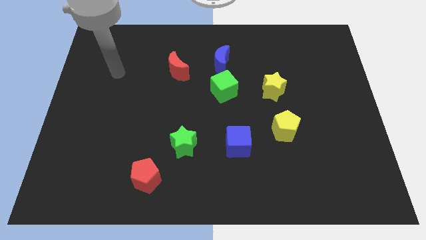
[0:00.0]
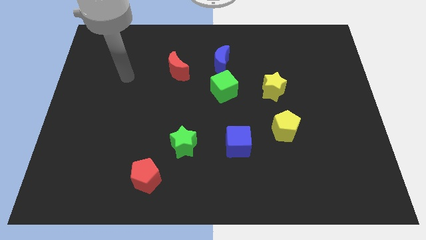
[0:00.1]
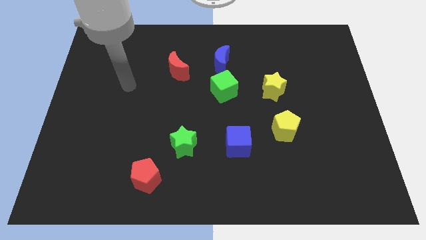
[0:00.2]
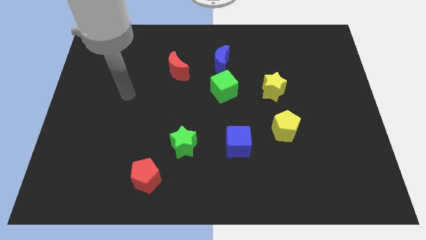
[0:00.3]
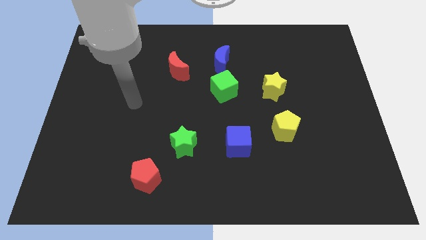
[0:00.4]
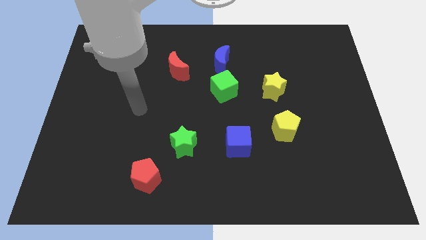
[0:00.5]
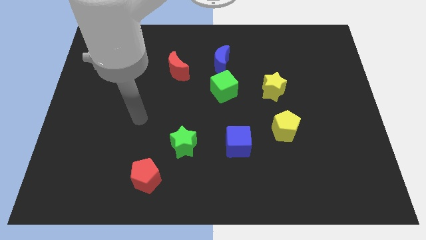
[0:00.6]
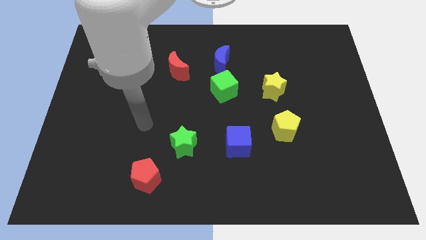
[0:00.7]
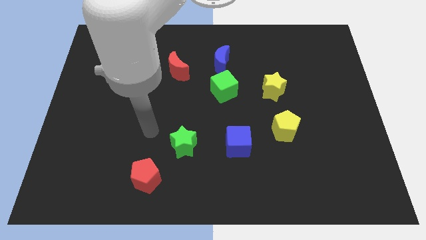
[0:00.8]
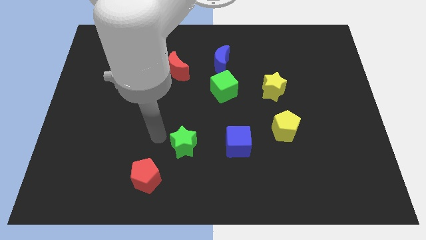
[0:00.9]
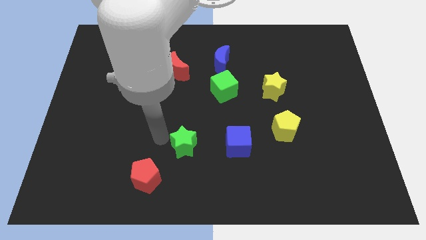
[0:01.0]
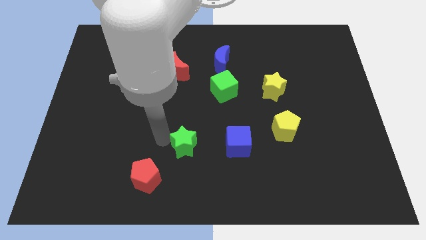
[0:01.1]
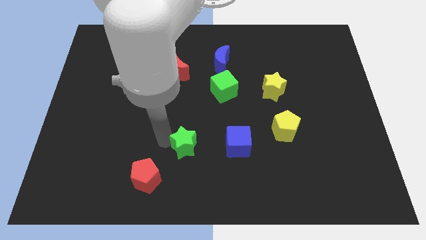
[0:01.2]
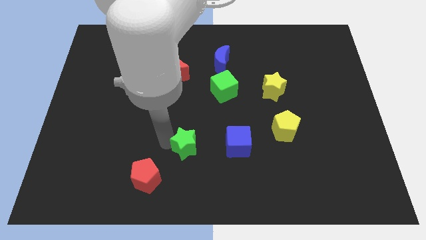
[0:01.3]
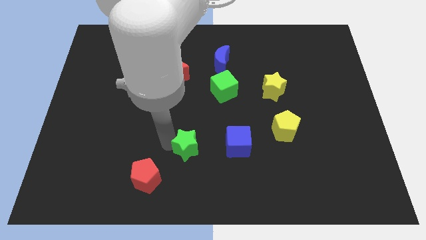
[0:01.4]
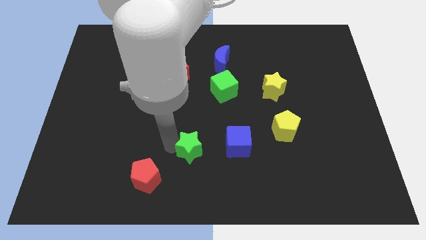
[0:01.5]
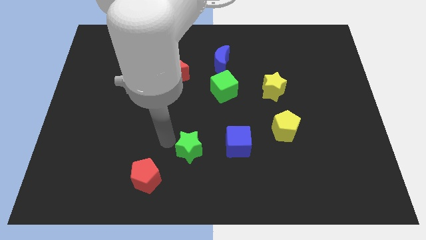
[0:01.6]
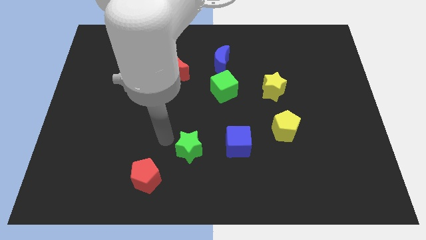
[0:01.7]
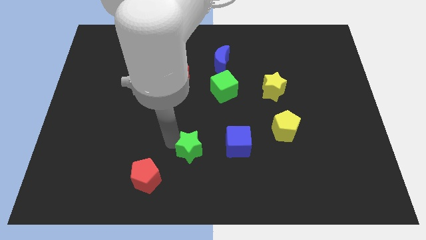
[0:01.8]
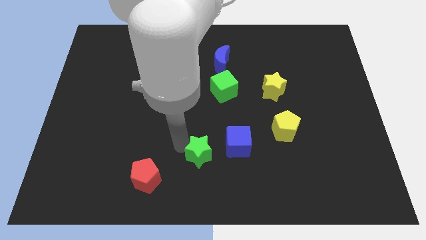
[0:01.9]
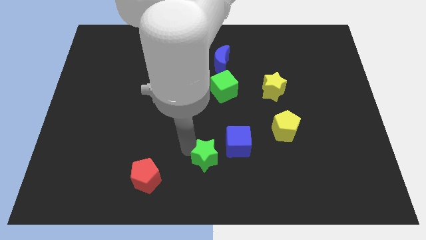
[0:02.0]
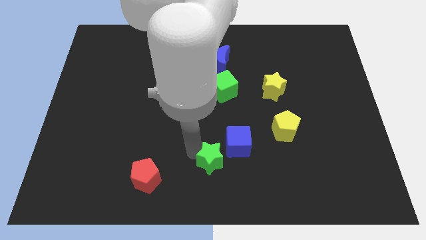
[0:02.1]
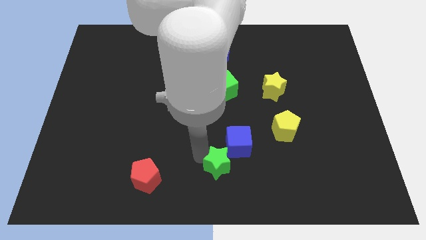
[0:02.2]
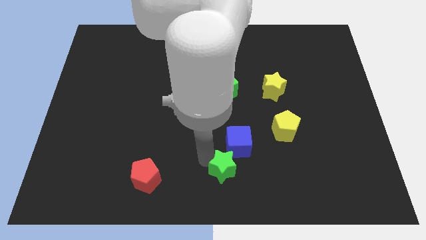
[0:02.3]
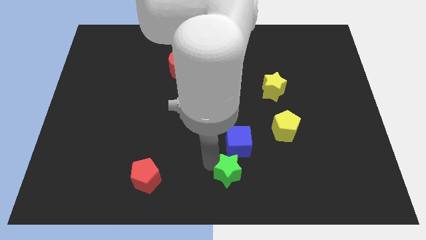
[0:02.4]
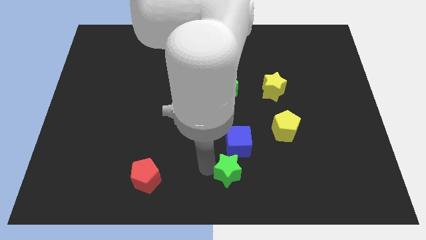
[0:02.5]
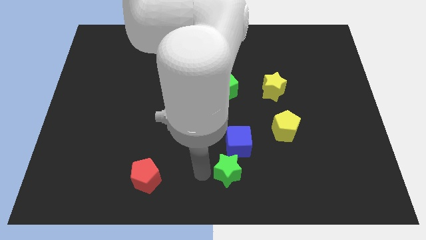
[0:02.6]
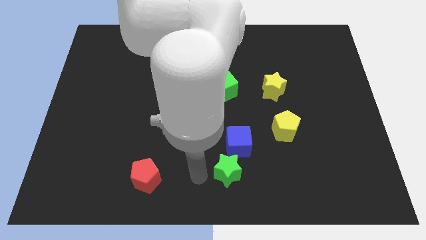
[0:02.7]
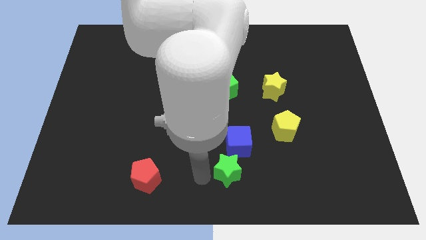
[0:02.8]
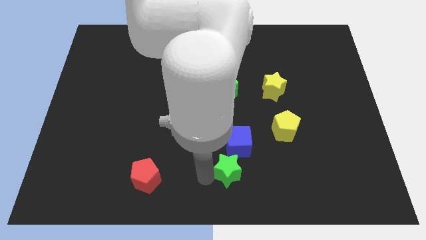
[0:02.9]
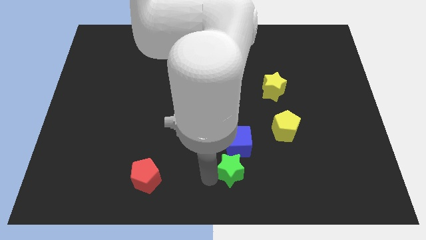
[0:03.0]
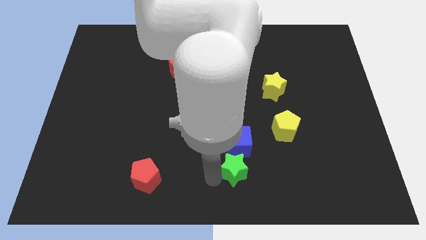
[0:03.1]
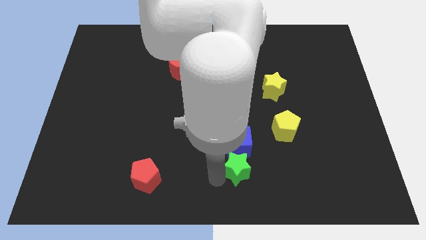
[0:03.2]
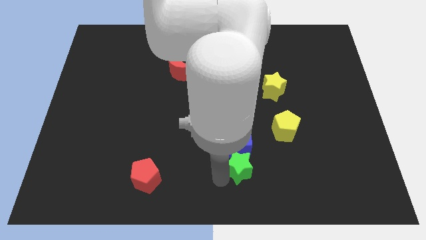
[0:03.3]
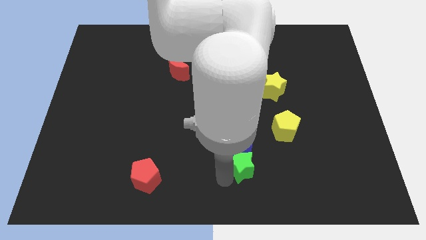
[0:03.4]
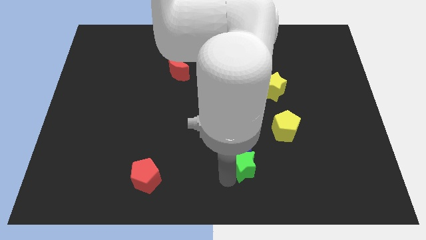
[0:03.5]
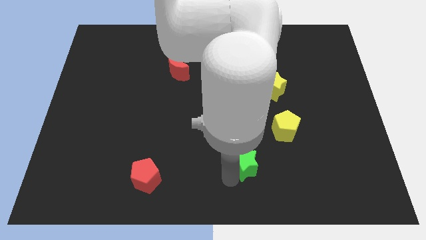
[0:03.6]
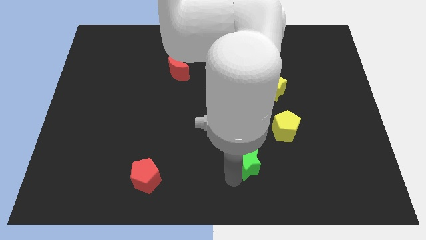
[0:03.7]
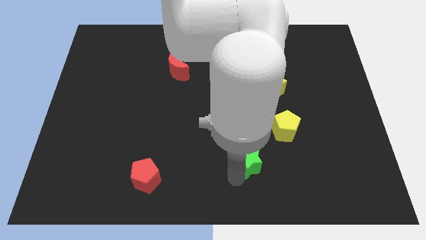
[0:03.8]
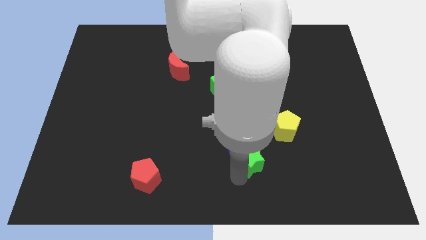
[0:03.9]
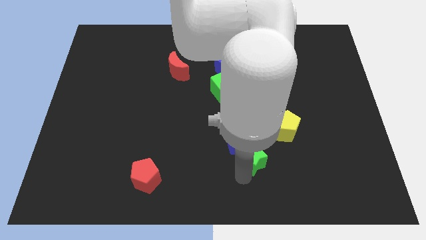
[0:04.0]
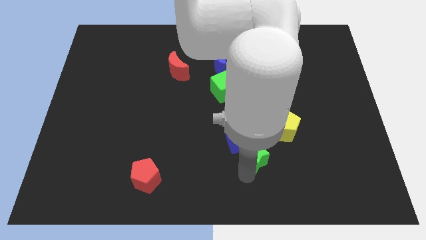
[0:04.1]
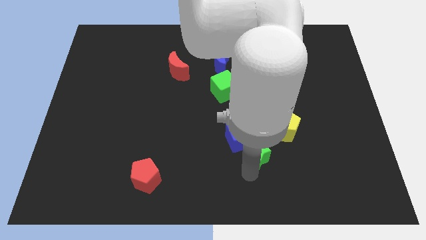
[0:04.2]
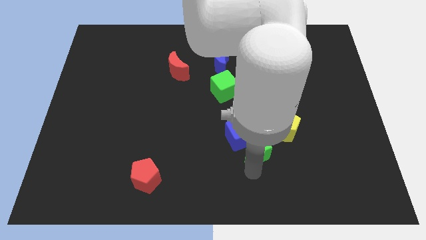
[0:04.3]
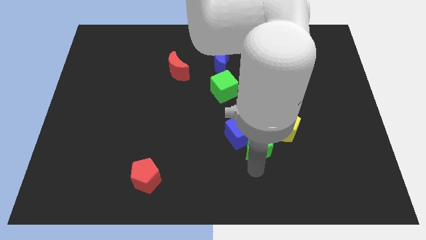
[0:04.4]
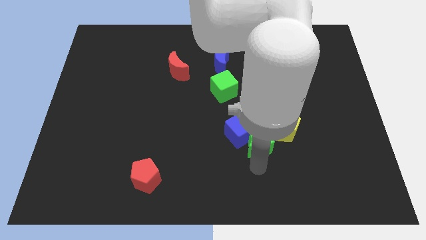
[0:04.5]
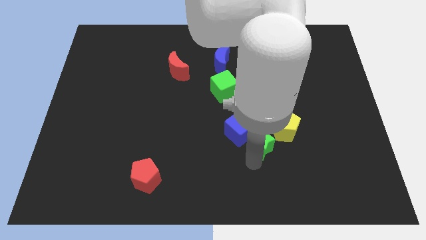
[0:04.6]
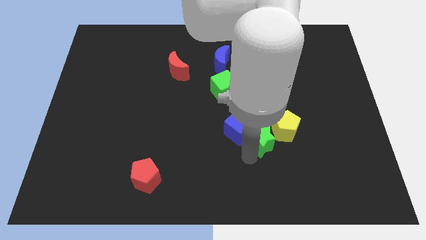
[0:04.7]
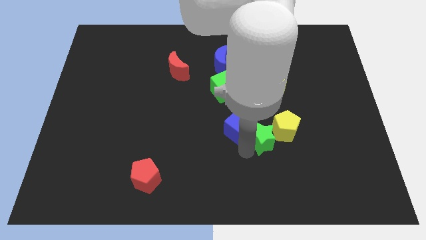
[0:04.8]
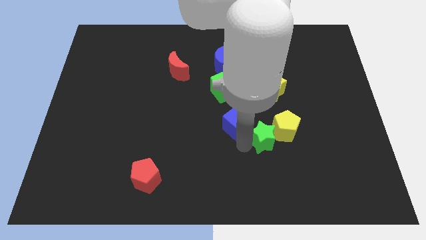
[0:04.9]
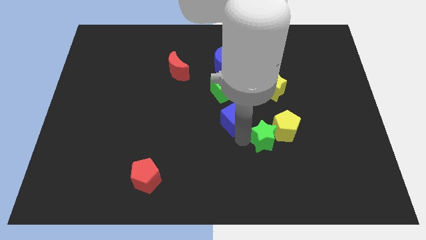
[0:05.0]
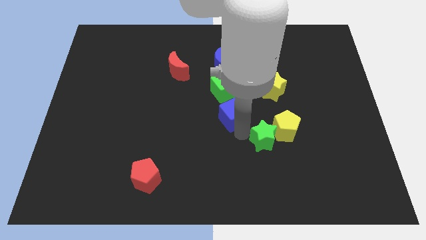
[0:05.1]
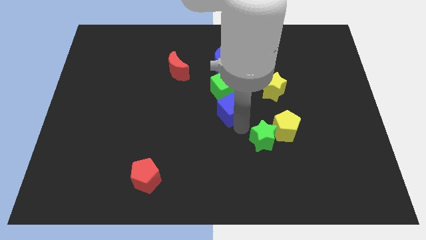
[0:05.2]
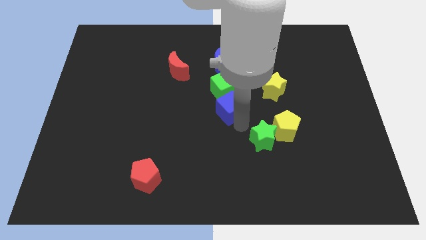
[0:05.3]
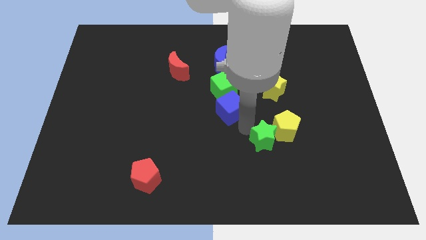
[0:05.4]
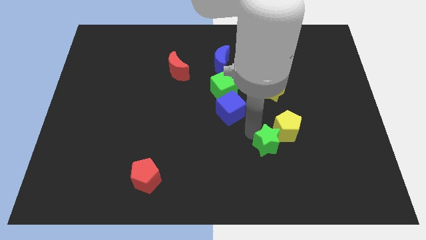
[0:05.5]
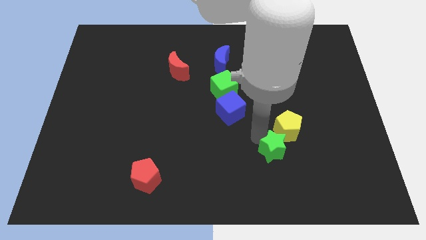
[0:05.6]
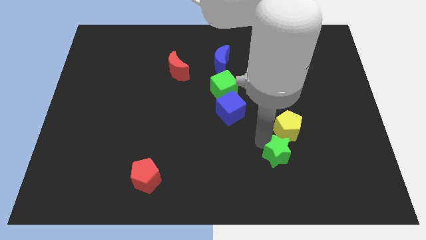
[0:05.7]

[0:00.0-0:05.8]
move the green star right

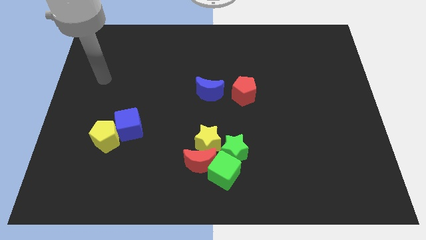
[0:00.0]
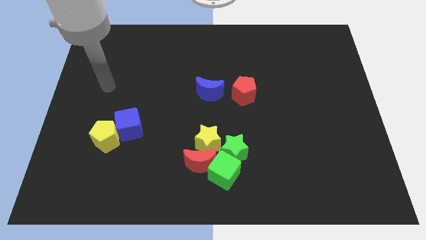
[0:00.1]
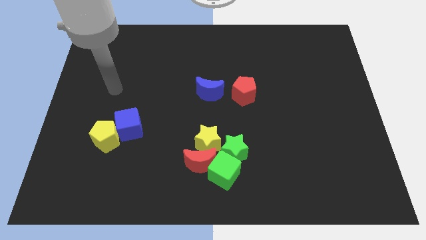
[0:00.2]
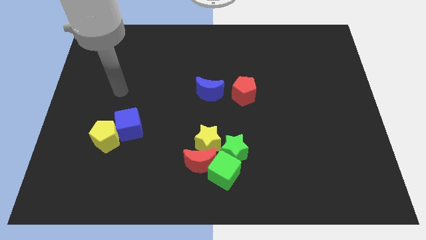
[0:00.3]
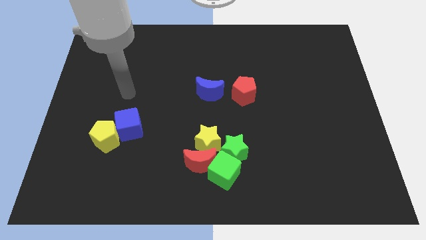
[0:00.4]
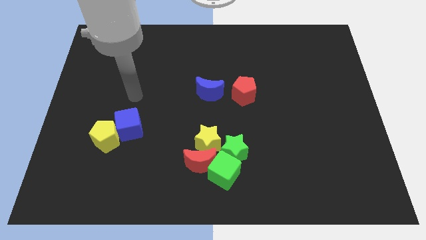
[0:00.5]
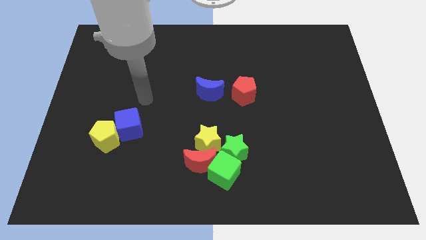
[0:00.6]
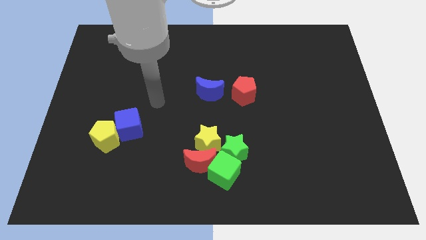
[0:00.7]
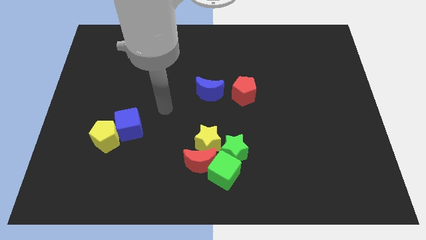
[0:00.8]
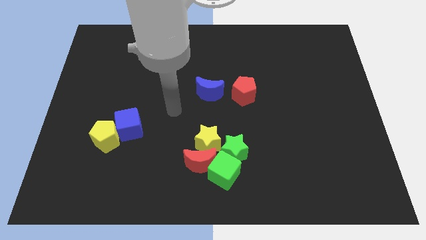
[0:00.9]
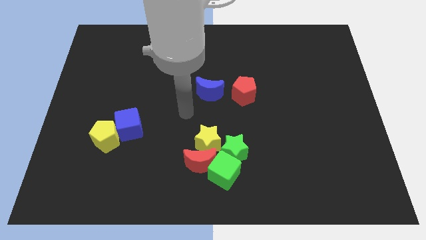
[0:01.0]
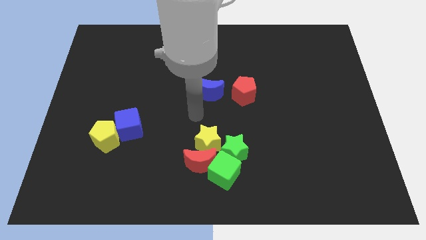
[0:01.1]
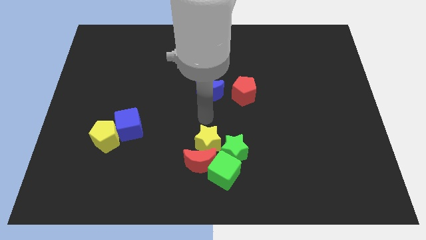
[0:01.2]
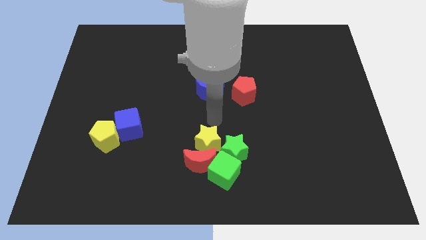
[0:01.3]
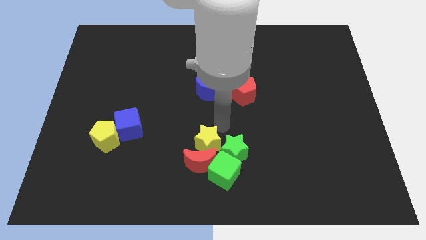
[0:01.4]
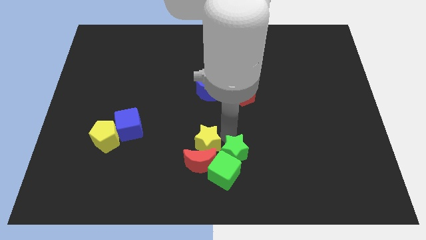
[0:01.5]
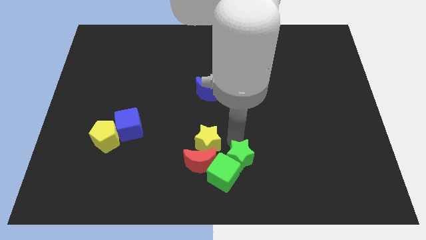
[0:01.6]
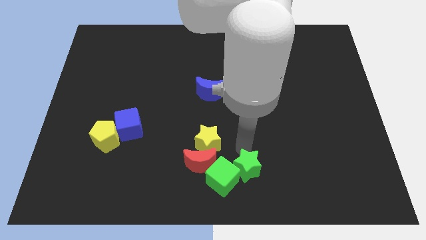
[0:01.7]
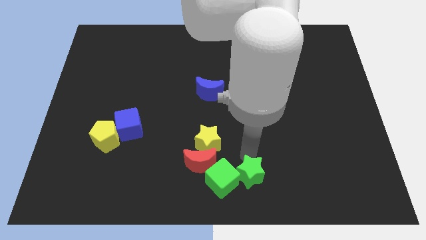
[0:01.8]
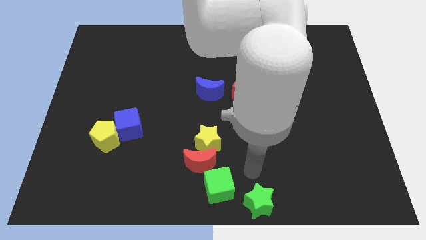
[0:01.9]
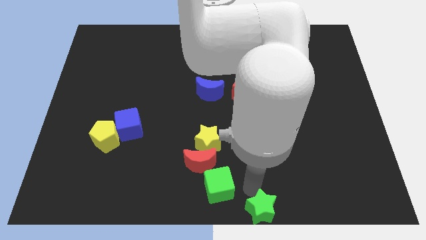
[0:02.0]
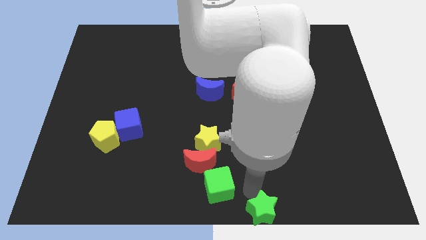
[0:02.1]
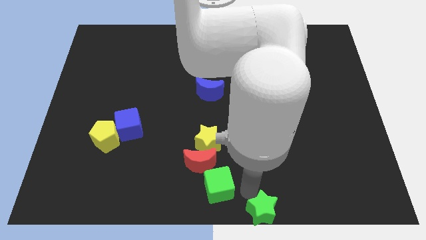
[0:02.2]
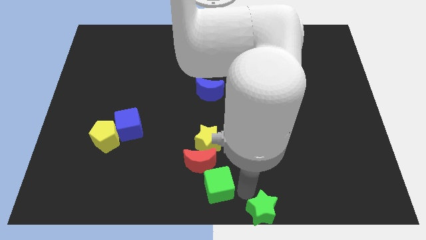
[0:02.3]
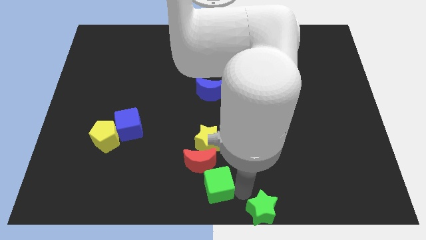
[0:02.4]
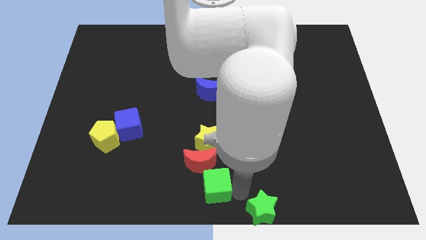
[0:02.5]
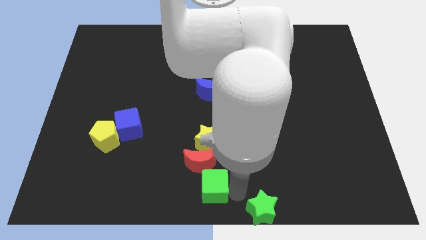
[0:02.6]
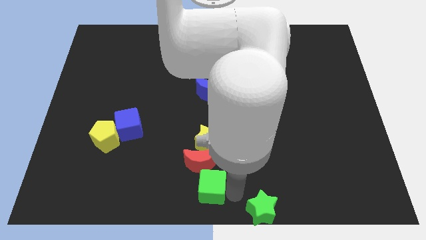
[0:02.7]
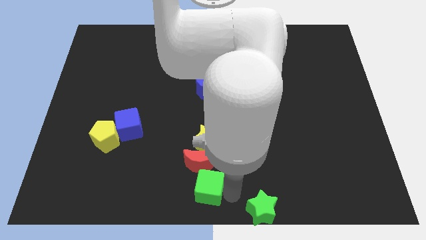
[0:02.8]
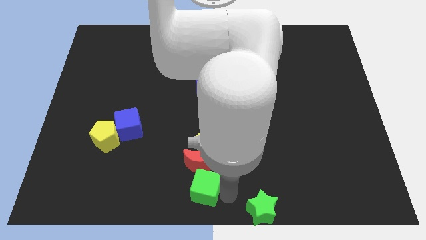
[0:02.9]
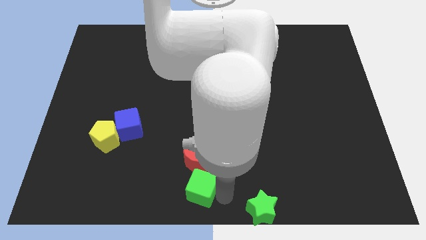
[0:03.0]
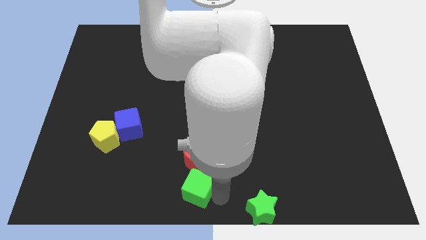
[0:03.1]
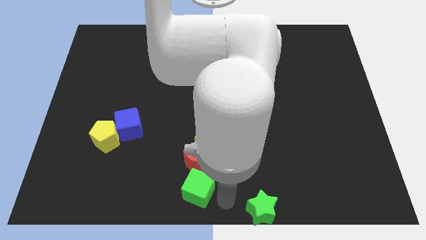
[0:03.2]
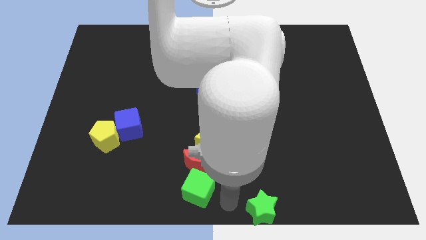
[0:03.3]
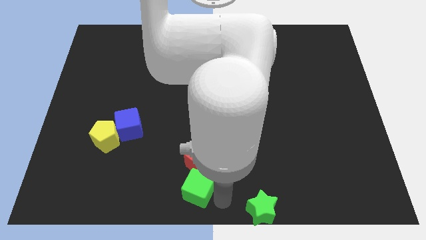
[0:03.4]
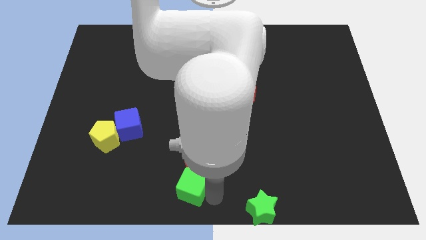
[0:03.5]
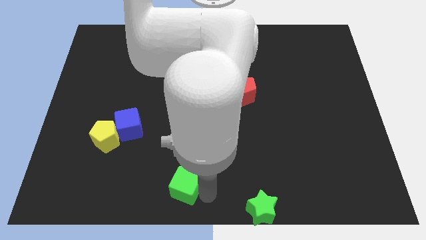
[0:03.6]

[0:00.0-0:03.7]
push the green cube left a bit
